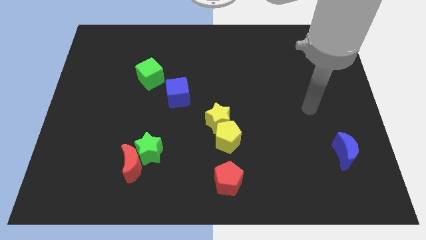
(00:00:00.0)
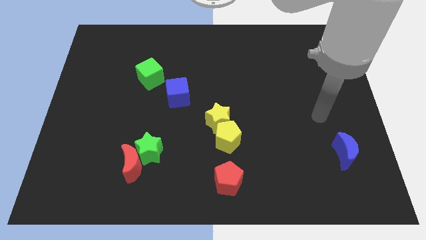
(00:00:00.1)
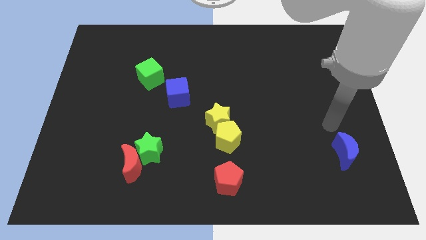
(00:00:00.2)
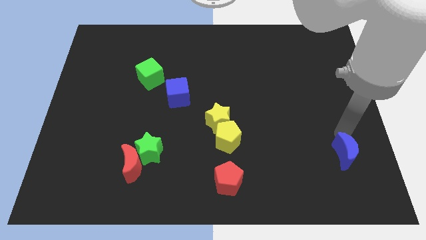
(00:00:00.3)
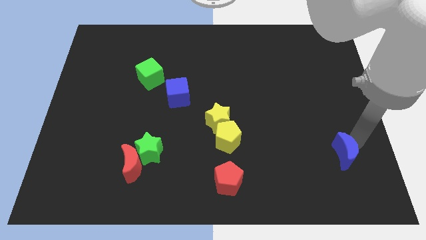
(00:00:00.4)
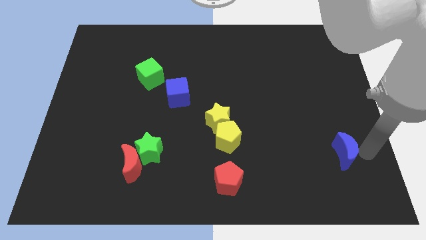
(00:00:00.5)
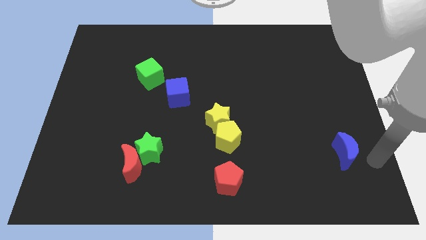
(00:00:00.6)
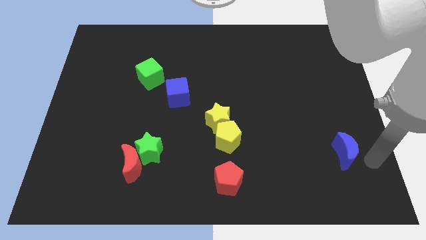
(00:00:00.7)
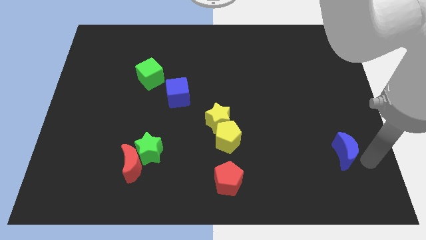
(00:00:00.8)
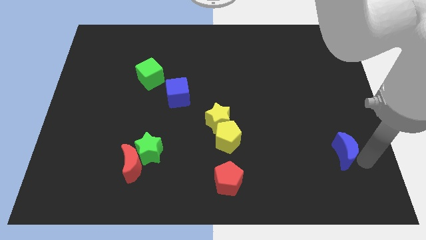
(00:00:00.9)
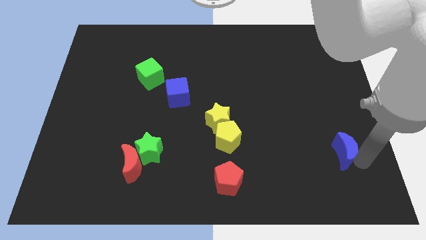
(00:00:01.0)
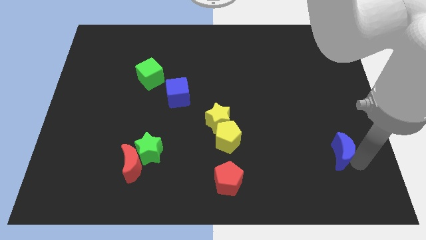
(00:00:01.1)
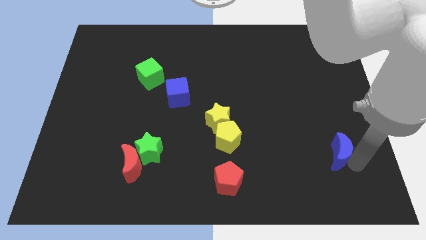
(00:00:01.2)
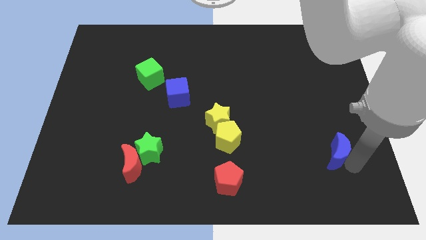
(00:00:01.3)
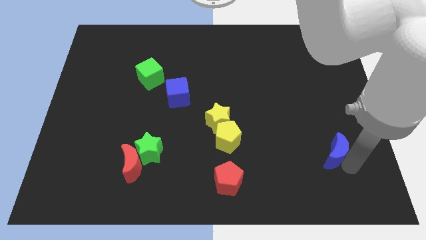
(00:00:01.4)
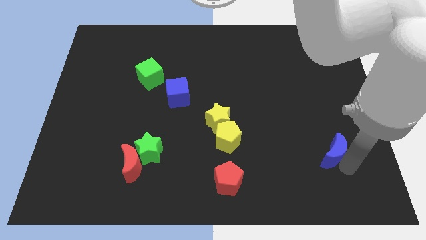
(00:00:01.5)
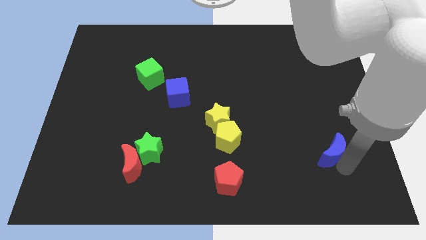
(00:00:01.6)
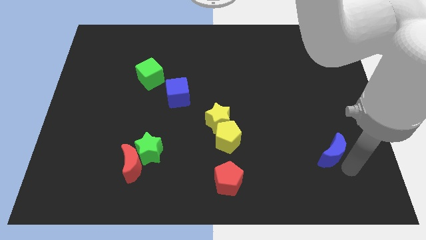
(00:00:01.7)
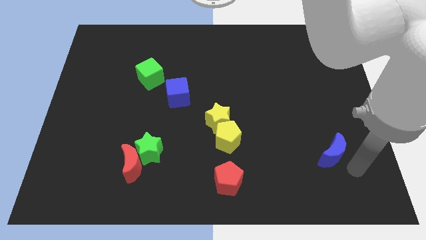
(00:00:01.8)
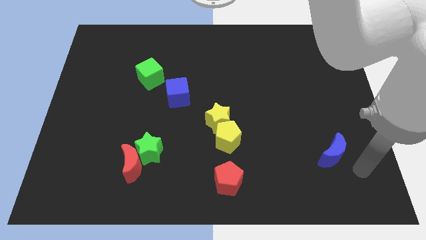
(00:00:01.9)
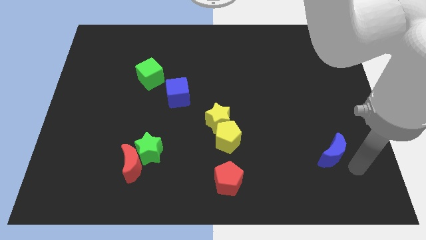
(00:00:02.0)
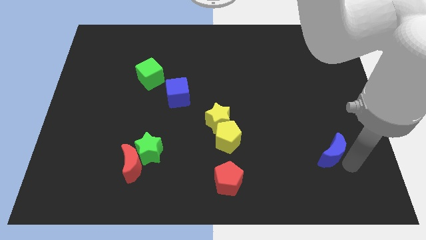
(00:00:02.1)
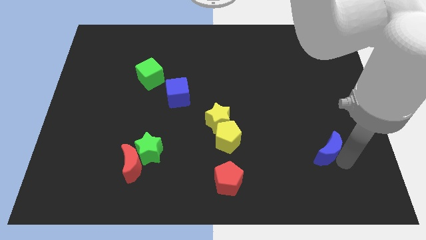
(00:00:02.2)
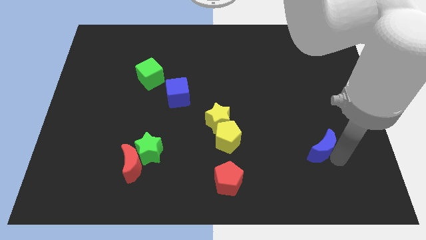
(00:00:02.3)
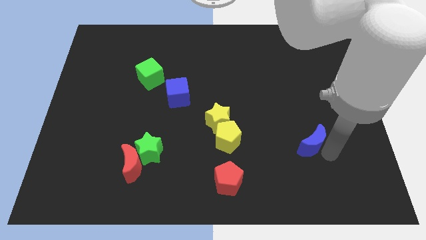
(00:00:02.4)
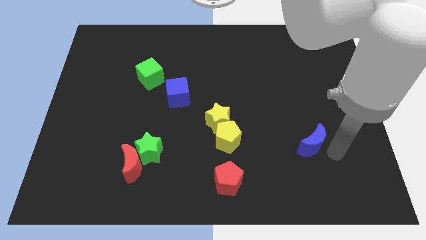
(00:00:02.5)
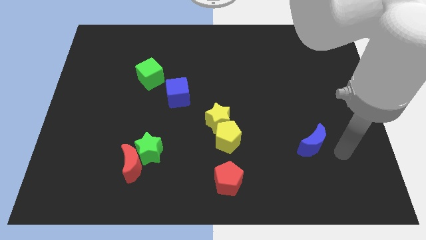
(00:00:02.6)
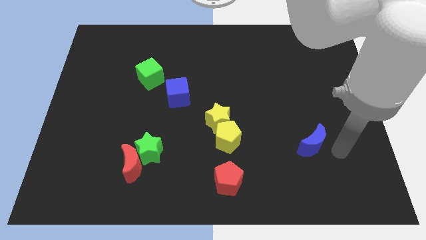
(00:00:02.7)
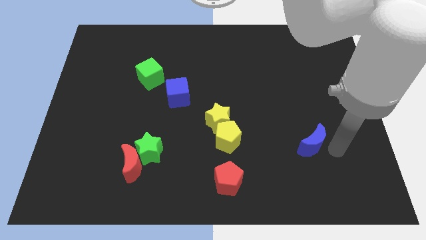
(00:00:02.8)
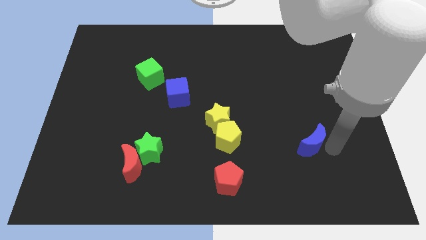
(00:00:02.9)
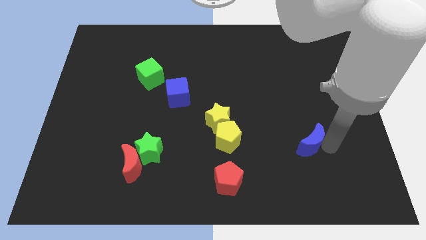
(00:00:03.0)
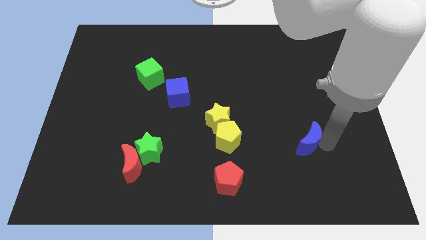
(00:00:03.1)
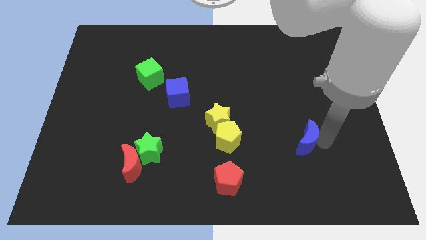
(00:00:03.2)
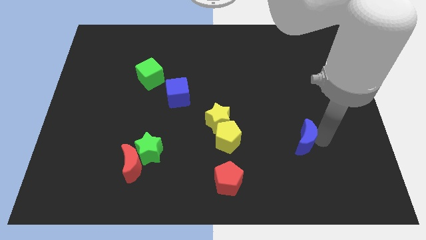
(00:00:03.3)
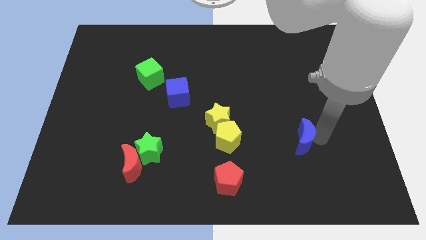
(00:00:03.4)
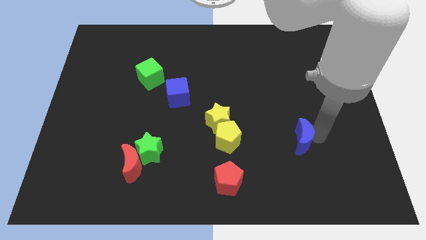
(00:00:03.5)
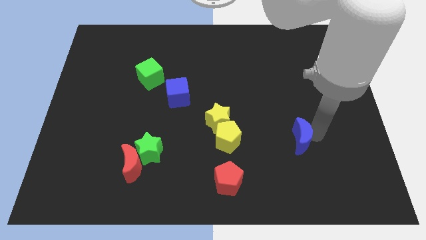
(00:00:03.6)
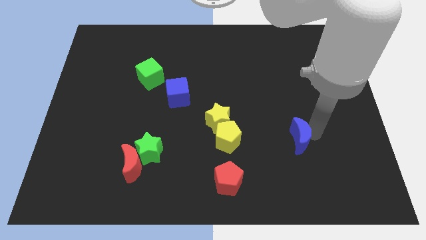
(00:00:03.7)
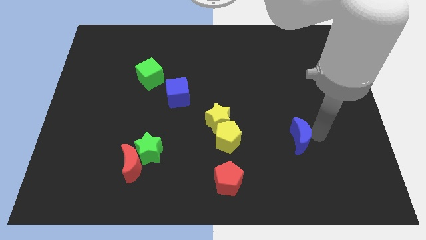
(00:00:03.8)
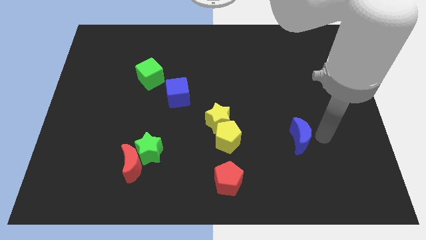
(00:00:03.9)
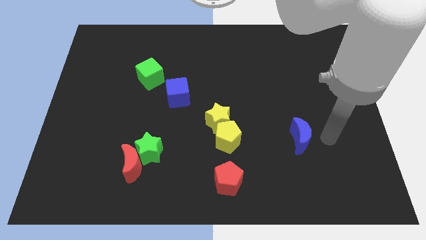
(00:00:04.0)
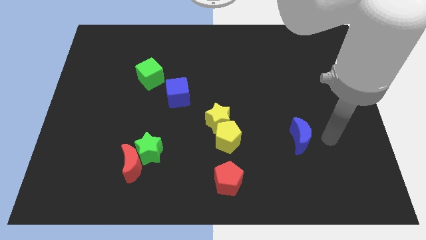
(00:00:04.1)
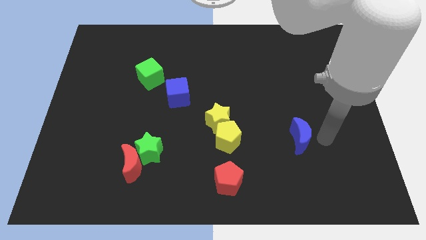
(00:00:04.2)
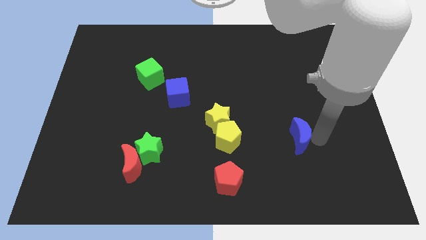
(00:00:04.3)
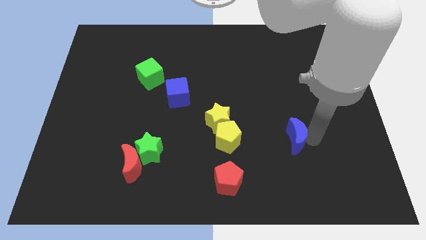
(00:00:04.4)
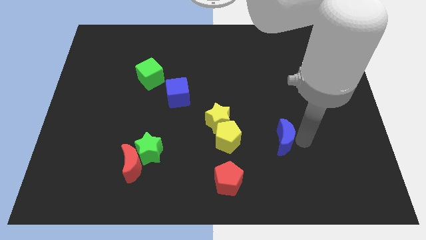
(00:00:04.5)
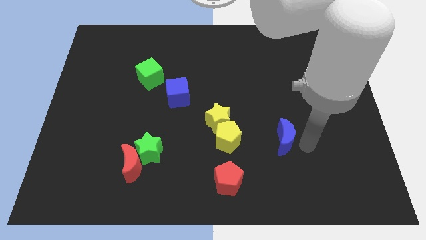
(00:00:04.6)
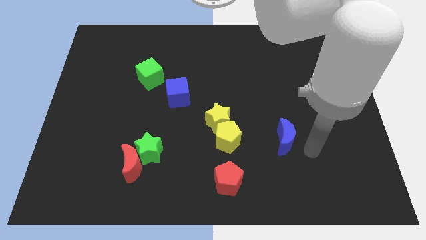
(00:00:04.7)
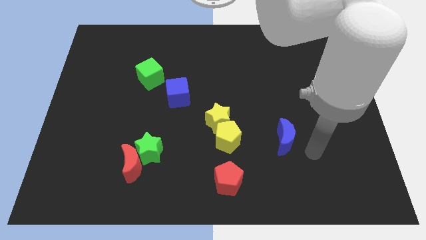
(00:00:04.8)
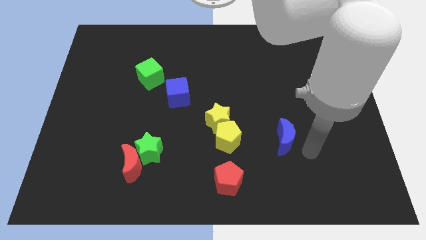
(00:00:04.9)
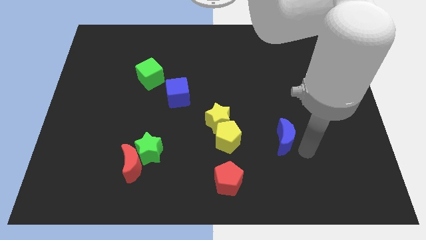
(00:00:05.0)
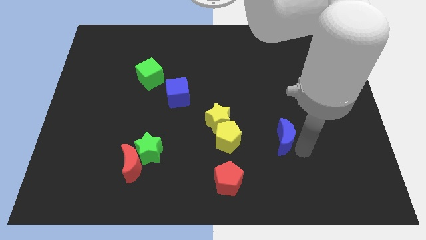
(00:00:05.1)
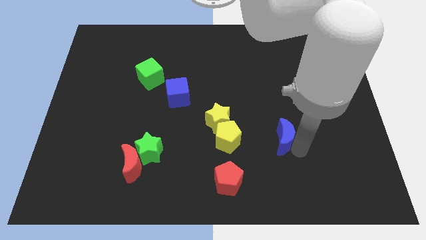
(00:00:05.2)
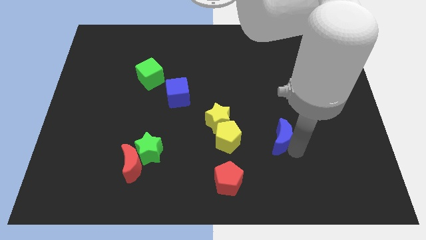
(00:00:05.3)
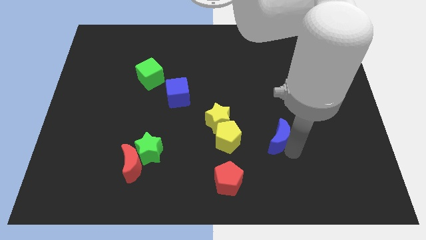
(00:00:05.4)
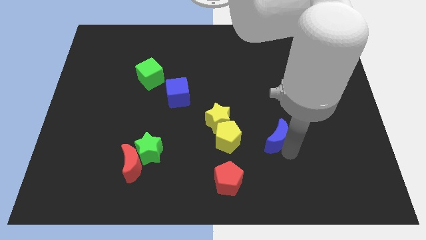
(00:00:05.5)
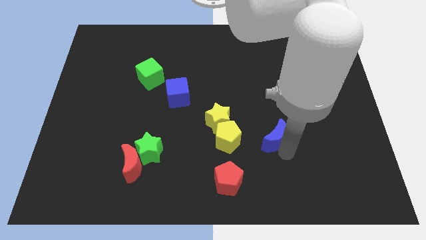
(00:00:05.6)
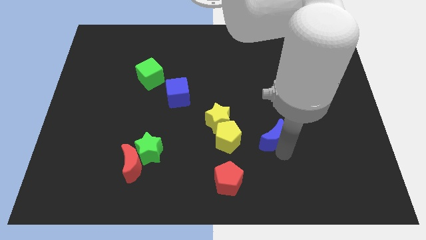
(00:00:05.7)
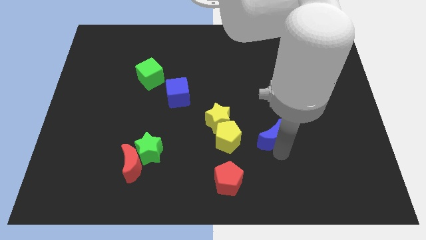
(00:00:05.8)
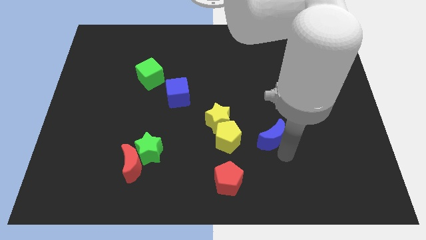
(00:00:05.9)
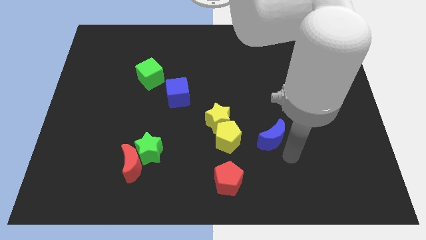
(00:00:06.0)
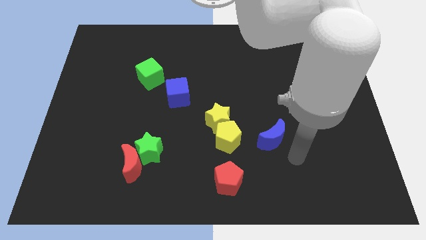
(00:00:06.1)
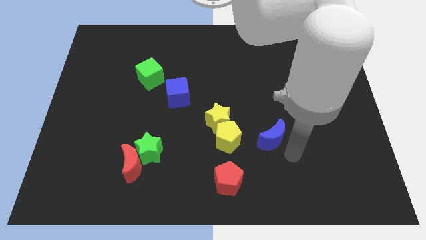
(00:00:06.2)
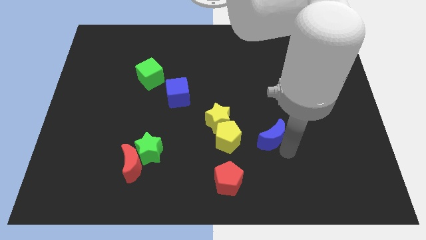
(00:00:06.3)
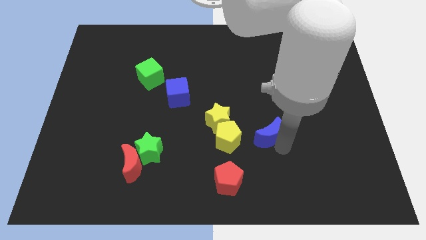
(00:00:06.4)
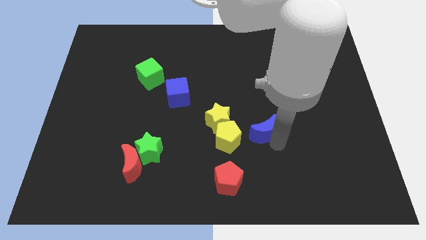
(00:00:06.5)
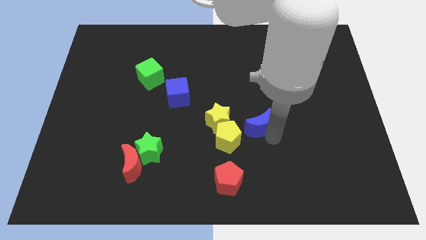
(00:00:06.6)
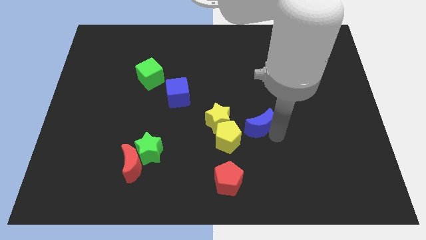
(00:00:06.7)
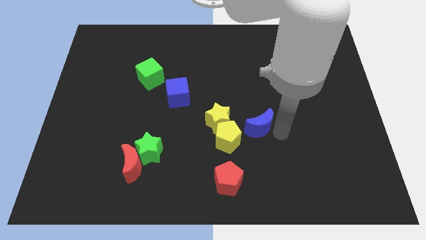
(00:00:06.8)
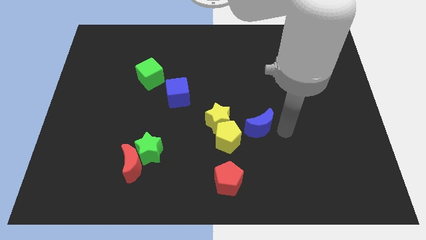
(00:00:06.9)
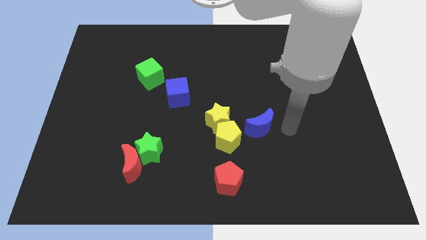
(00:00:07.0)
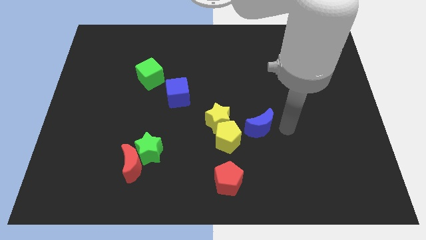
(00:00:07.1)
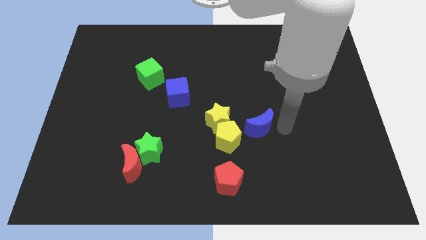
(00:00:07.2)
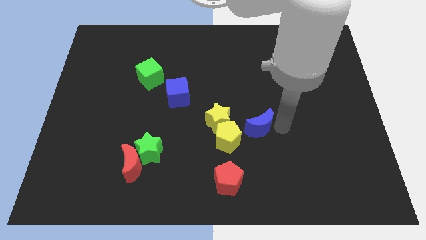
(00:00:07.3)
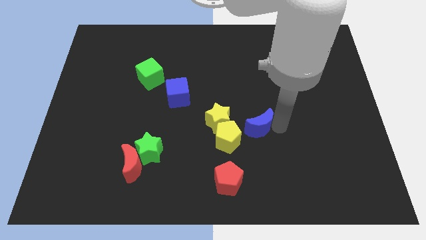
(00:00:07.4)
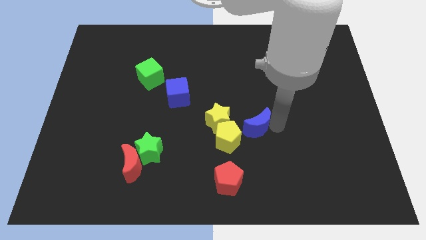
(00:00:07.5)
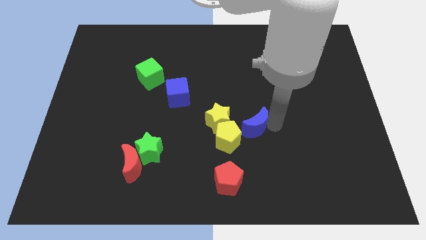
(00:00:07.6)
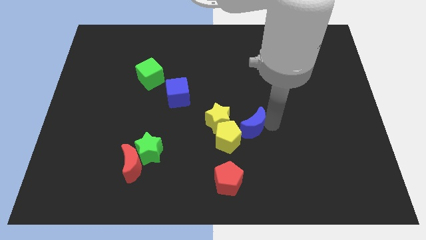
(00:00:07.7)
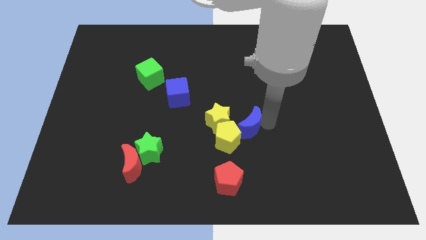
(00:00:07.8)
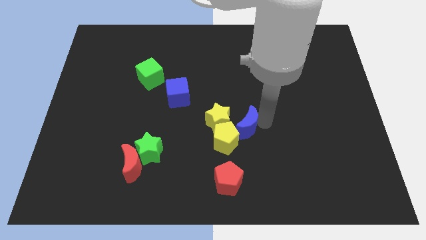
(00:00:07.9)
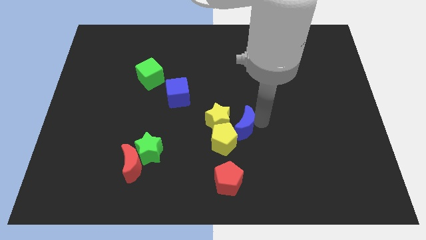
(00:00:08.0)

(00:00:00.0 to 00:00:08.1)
slide the blue moon next to the yellow star
